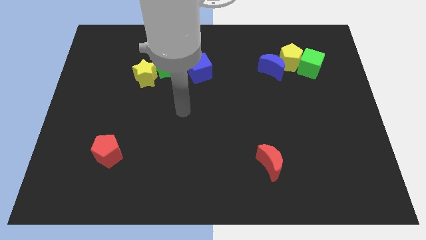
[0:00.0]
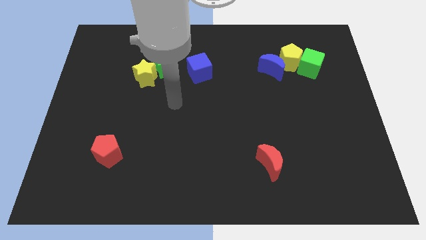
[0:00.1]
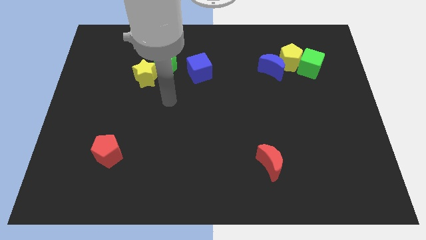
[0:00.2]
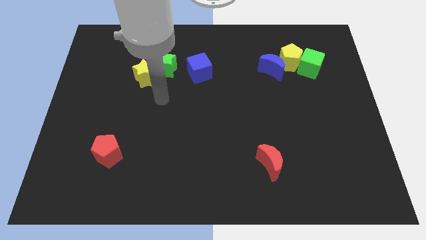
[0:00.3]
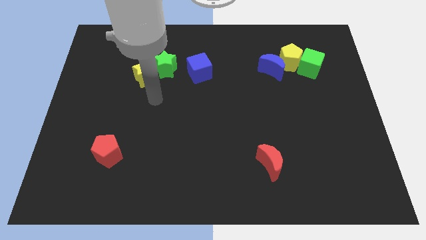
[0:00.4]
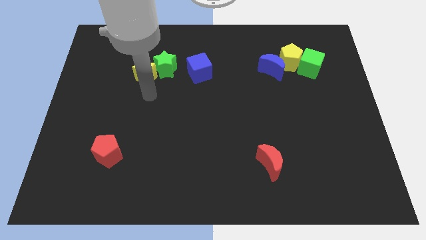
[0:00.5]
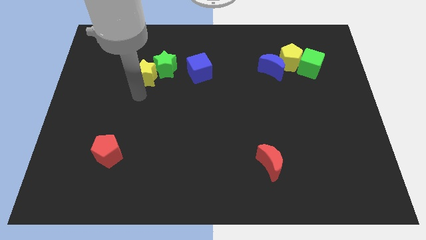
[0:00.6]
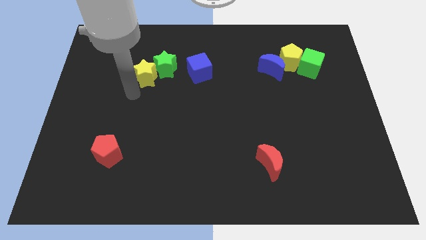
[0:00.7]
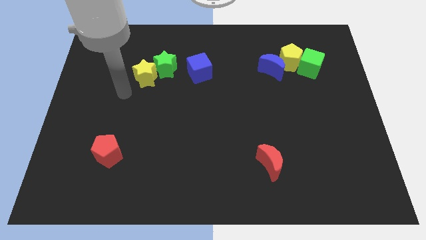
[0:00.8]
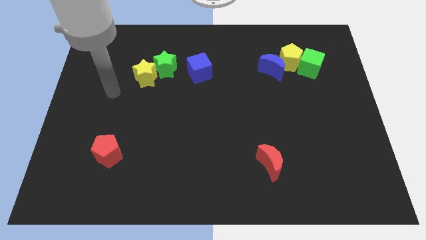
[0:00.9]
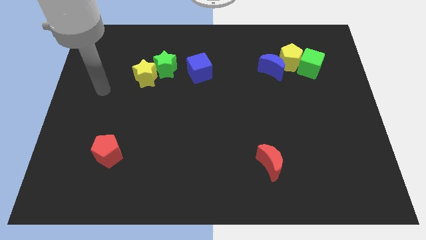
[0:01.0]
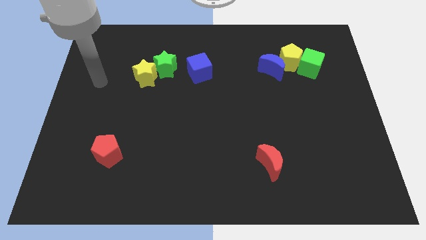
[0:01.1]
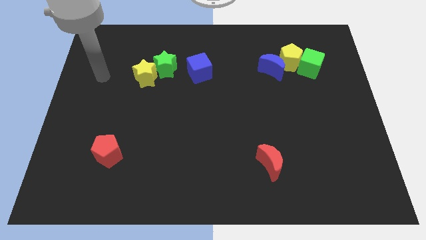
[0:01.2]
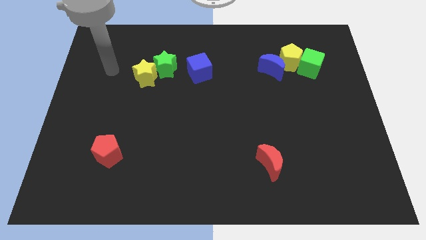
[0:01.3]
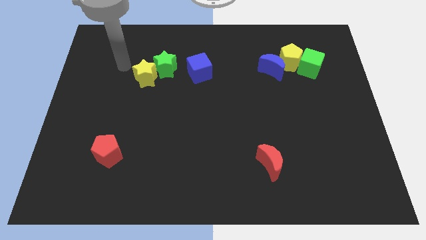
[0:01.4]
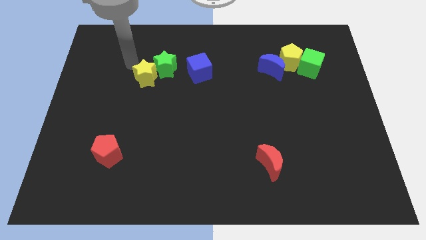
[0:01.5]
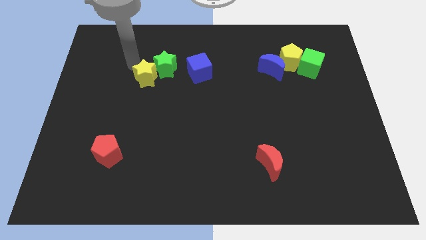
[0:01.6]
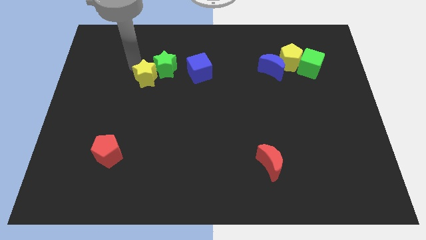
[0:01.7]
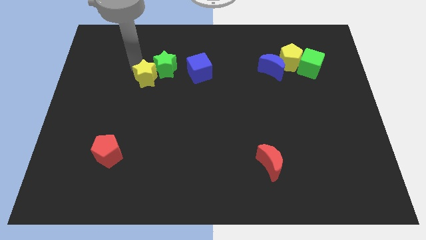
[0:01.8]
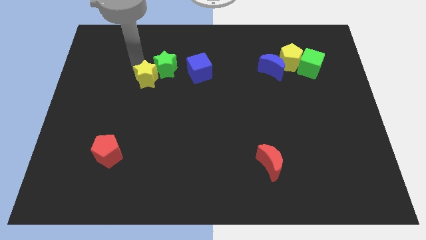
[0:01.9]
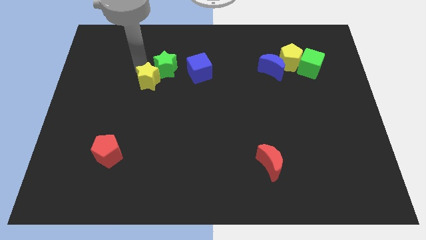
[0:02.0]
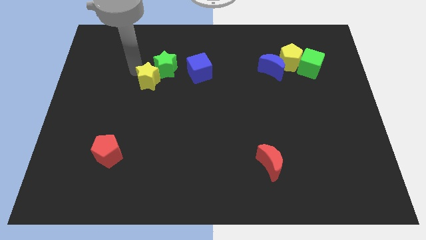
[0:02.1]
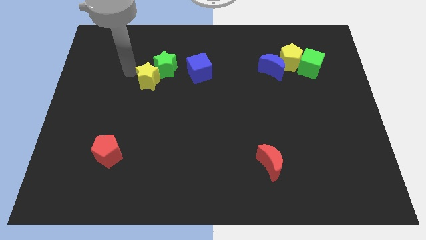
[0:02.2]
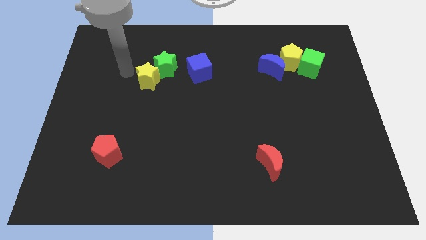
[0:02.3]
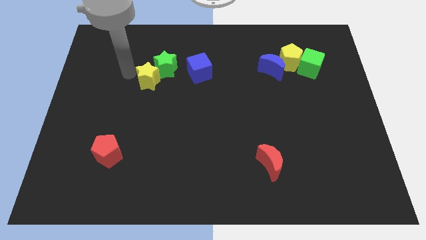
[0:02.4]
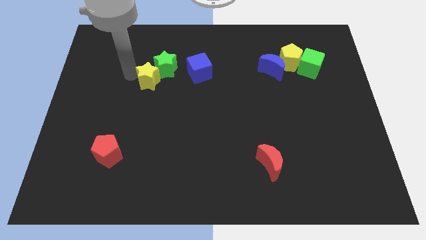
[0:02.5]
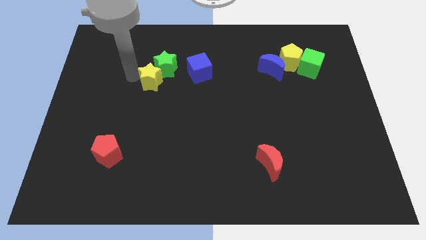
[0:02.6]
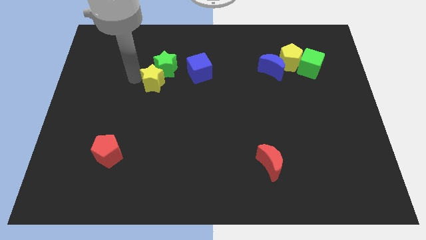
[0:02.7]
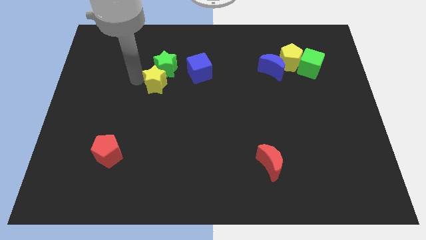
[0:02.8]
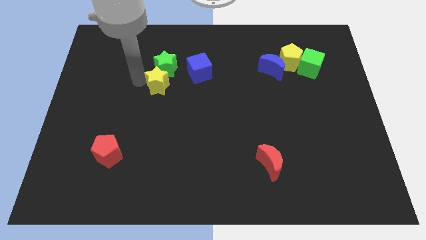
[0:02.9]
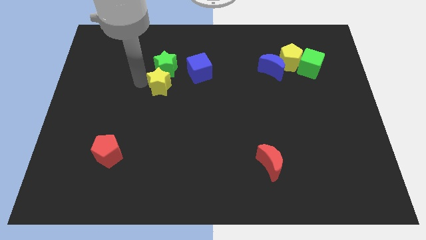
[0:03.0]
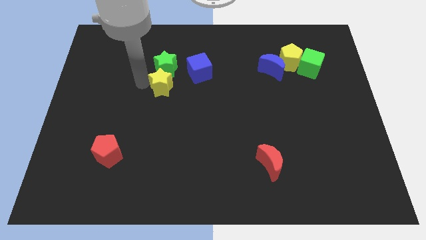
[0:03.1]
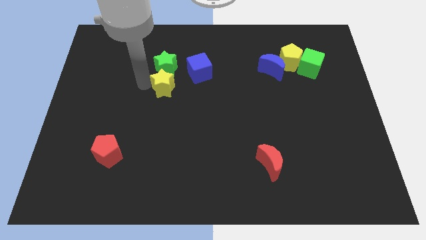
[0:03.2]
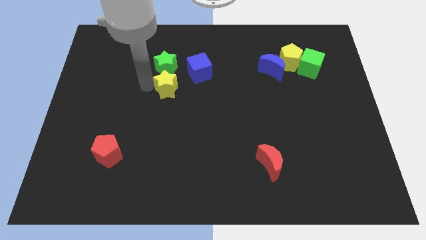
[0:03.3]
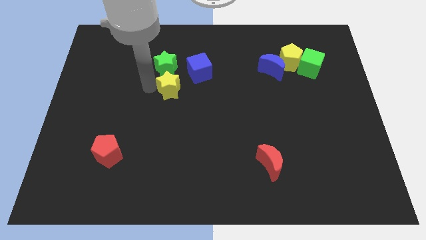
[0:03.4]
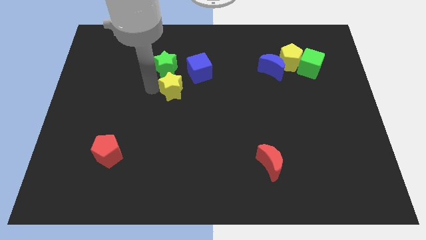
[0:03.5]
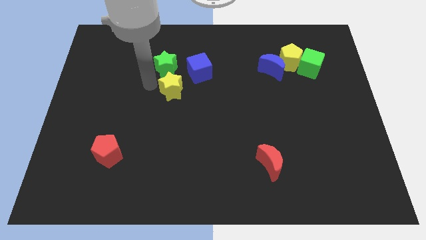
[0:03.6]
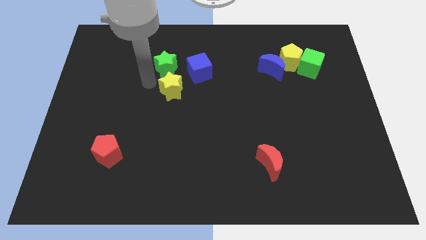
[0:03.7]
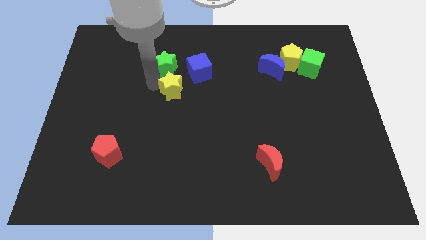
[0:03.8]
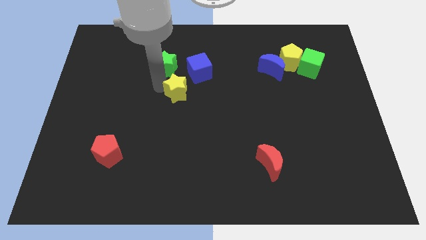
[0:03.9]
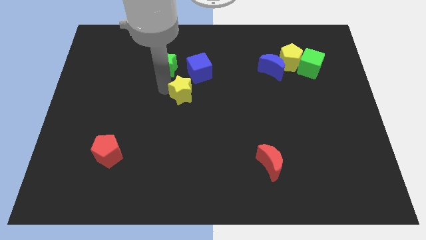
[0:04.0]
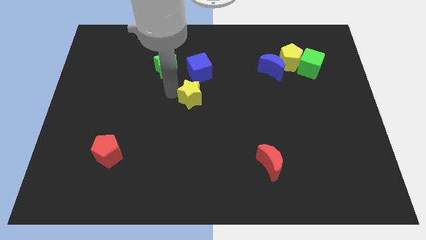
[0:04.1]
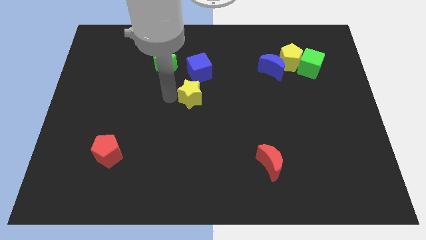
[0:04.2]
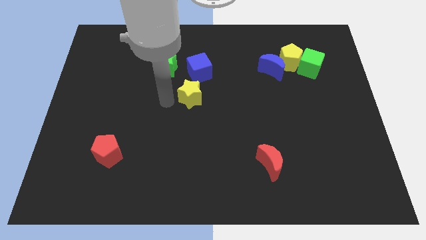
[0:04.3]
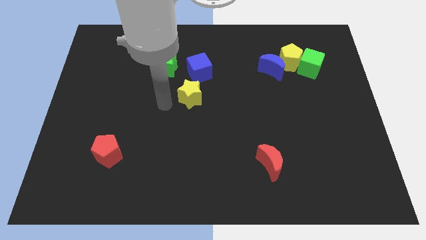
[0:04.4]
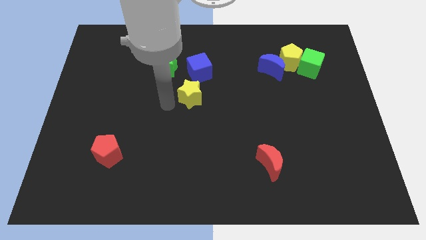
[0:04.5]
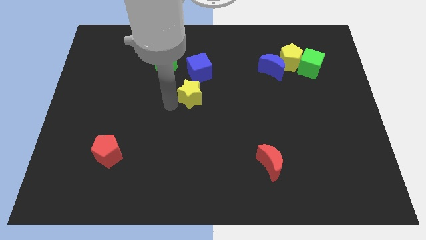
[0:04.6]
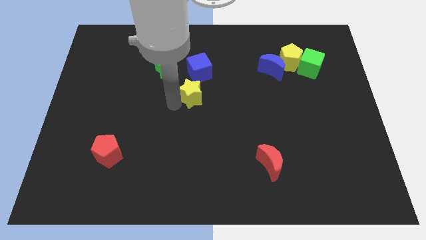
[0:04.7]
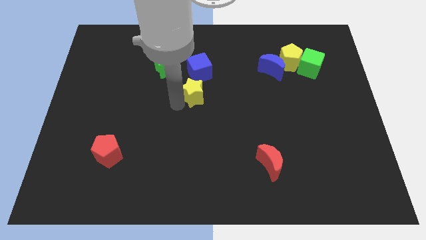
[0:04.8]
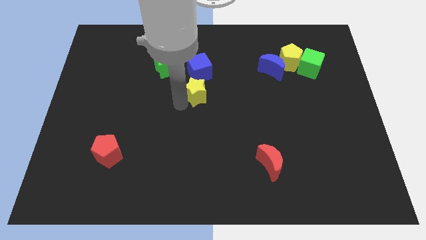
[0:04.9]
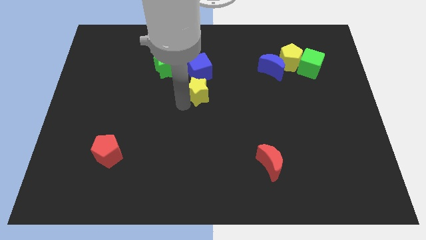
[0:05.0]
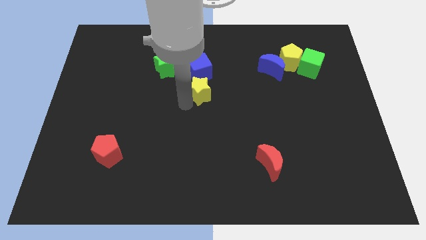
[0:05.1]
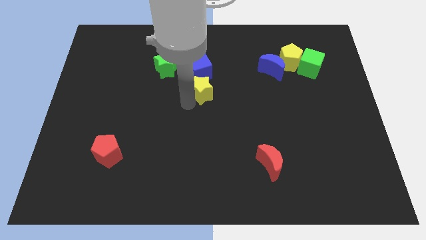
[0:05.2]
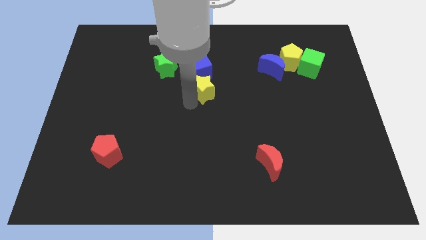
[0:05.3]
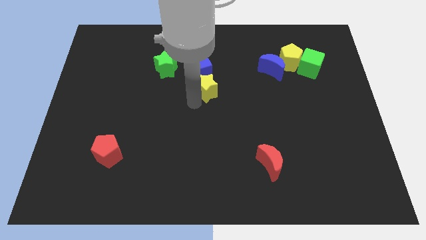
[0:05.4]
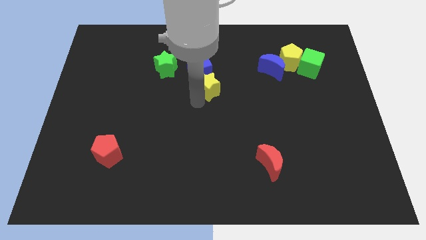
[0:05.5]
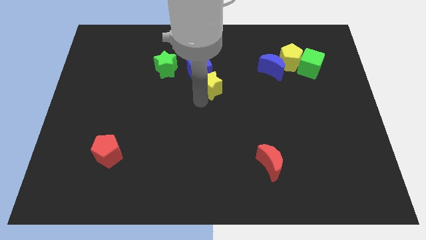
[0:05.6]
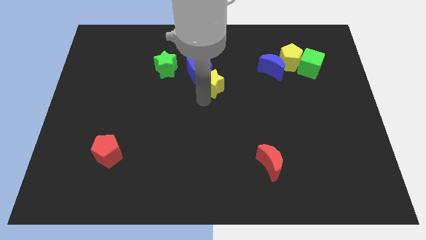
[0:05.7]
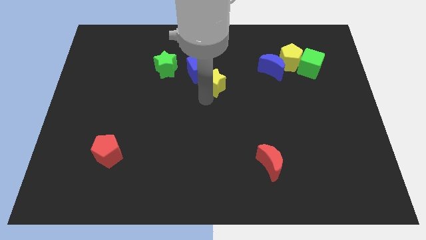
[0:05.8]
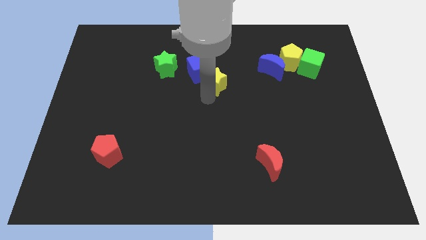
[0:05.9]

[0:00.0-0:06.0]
slide the yellow star to the right of the blue cube

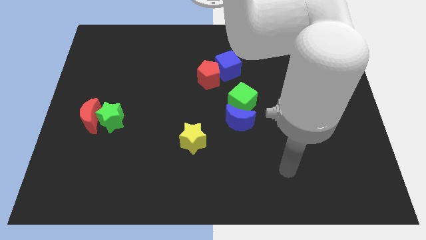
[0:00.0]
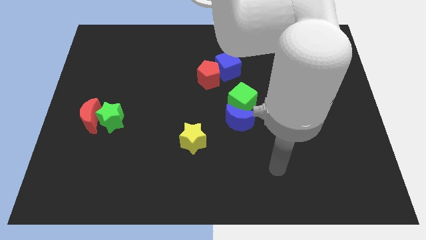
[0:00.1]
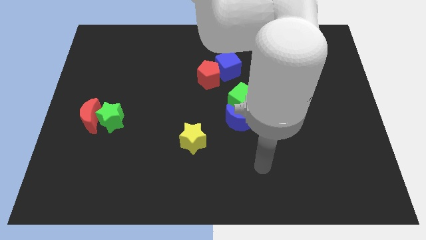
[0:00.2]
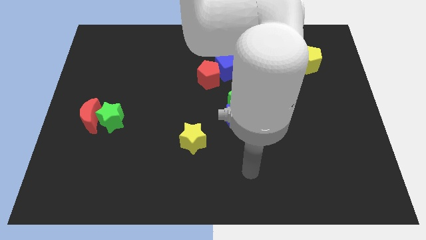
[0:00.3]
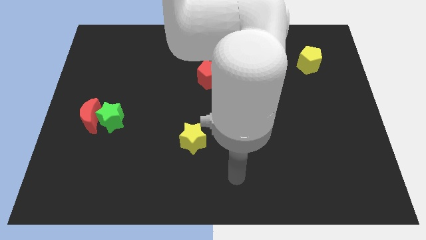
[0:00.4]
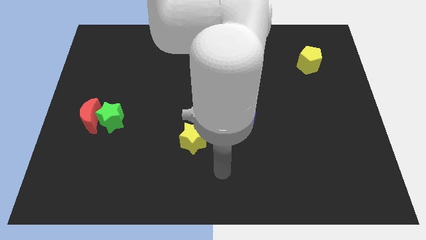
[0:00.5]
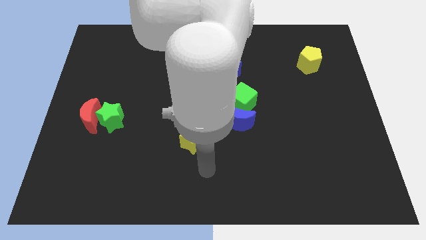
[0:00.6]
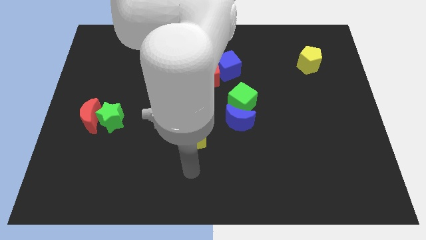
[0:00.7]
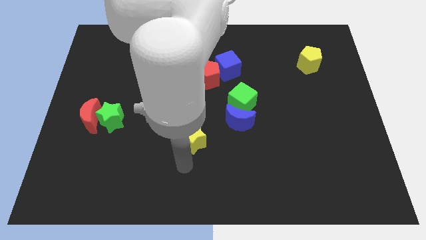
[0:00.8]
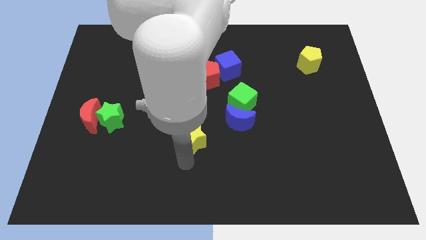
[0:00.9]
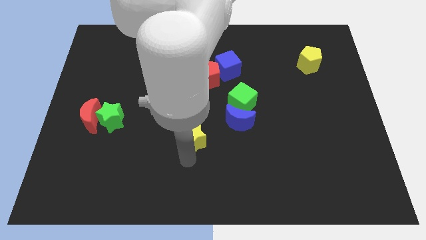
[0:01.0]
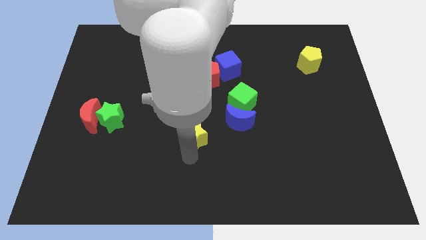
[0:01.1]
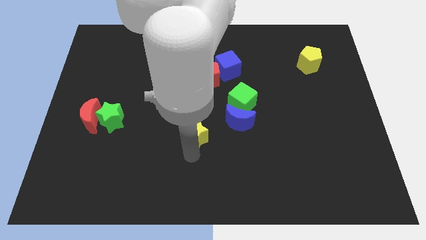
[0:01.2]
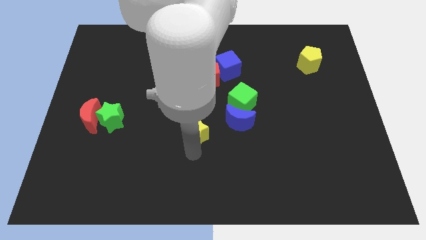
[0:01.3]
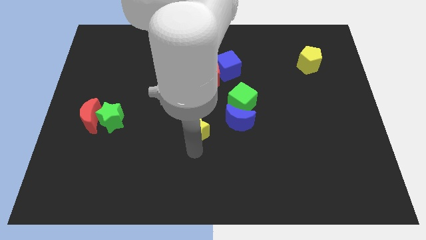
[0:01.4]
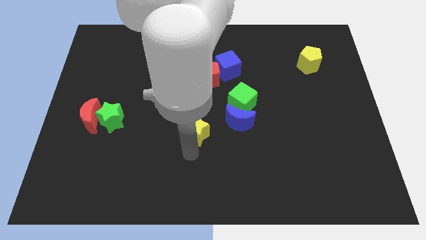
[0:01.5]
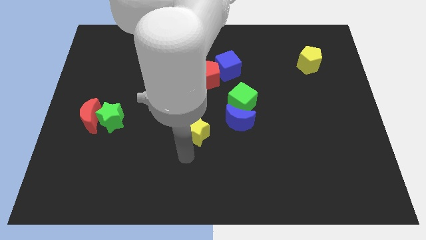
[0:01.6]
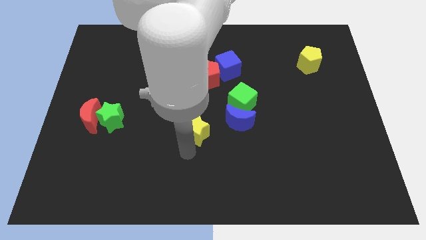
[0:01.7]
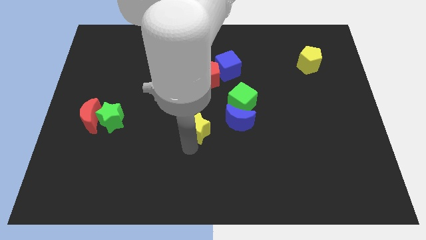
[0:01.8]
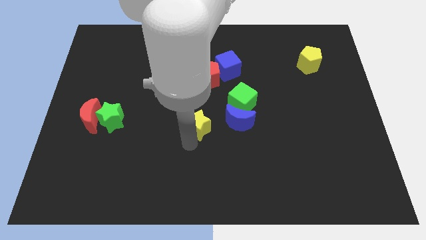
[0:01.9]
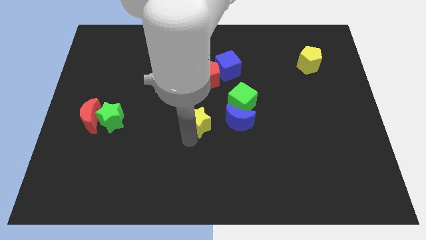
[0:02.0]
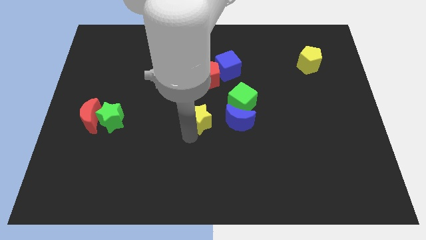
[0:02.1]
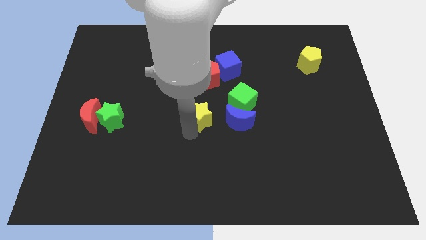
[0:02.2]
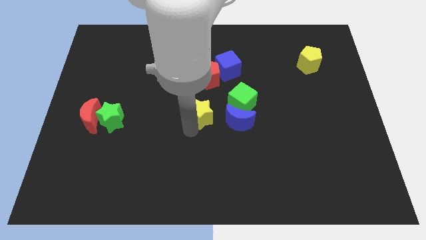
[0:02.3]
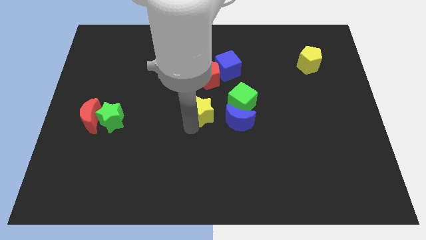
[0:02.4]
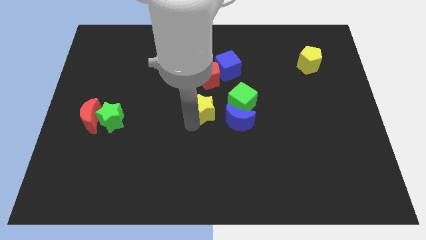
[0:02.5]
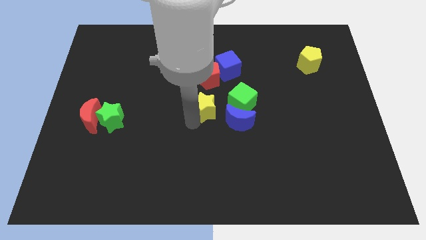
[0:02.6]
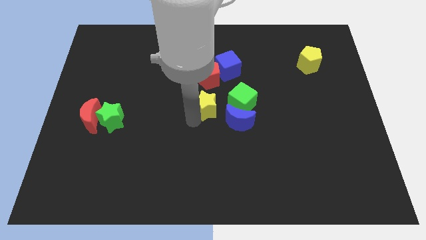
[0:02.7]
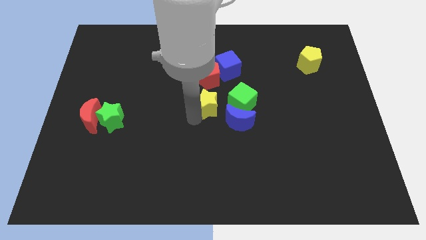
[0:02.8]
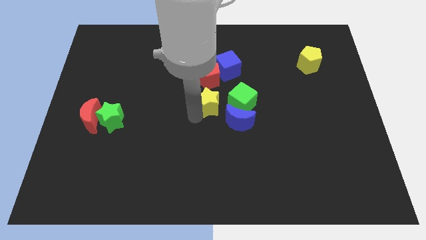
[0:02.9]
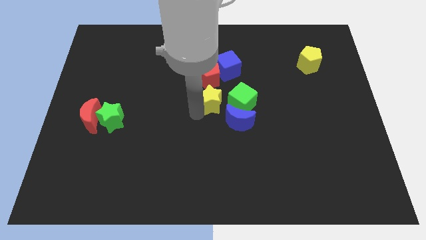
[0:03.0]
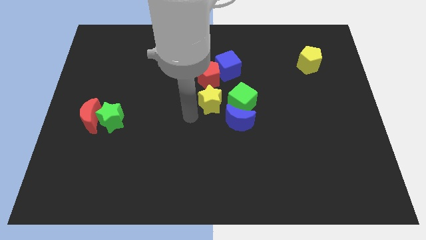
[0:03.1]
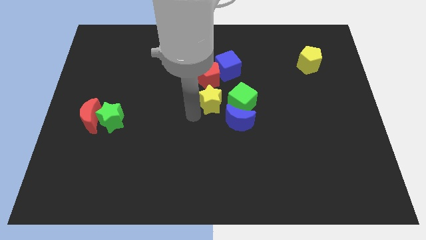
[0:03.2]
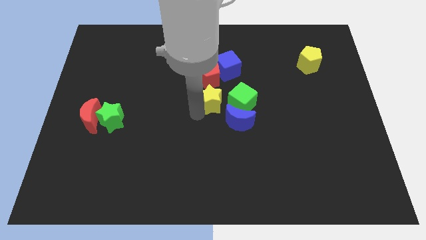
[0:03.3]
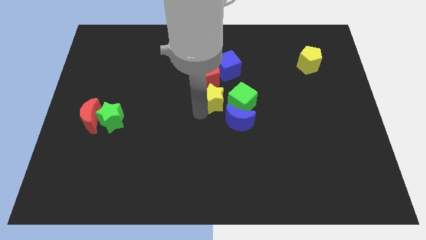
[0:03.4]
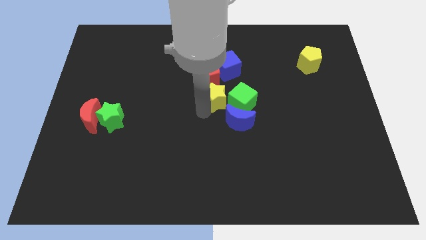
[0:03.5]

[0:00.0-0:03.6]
put the yellow star above the blue moon
